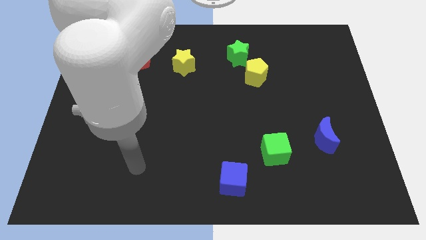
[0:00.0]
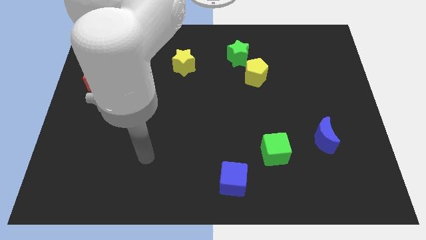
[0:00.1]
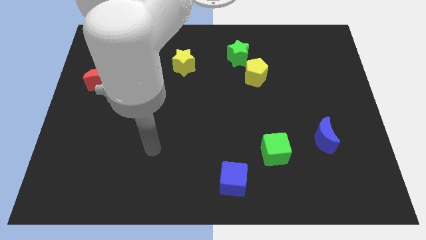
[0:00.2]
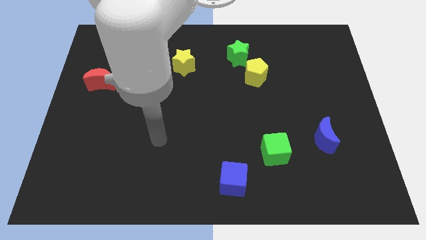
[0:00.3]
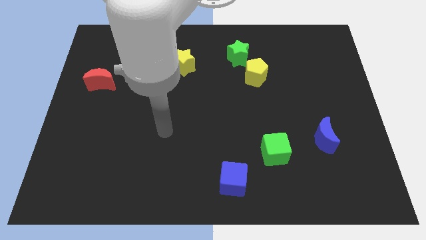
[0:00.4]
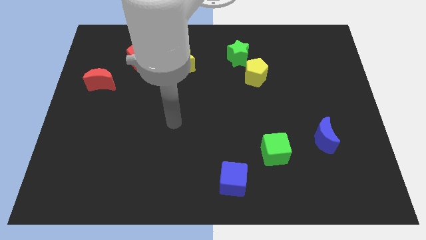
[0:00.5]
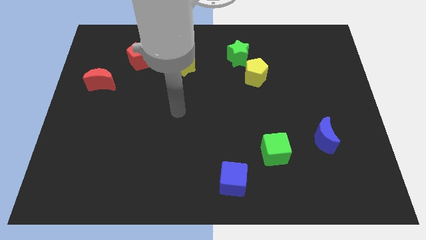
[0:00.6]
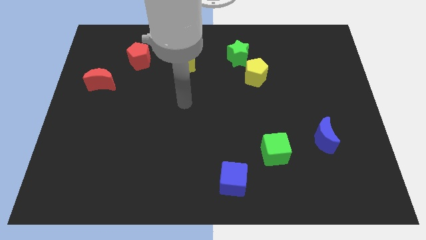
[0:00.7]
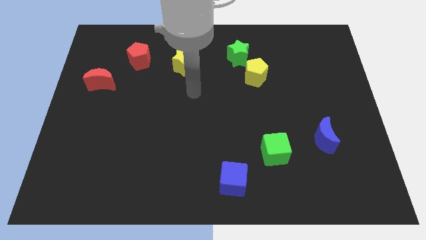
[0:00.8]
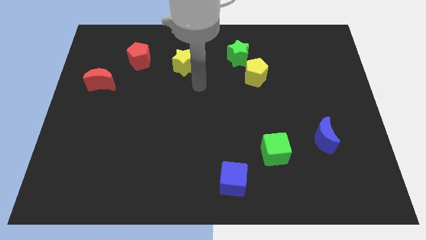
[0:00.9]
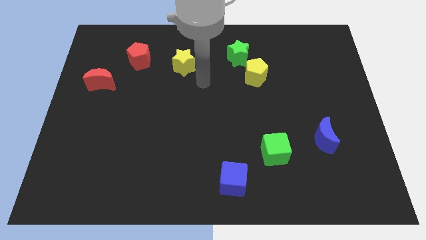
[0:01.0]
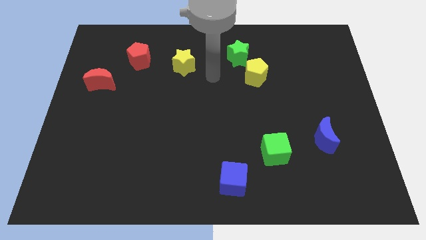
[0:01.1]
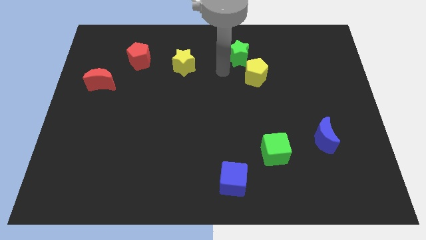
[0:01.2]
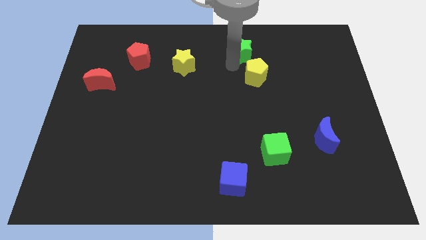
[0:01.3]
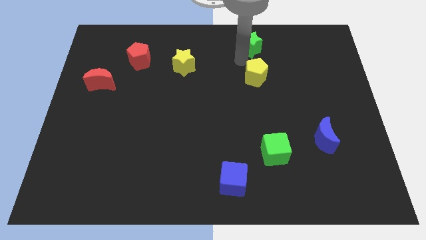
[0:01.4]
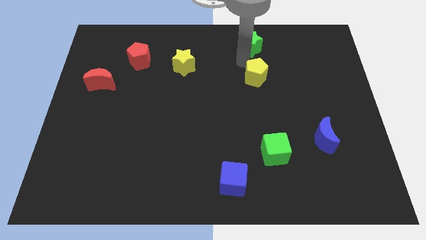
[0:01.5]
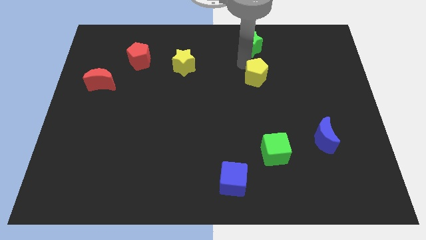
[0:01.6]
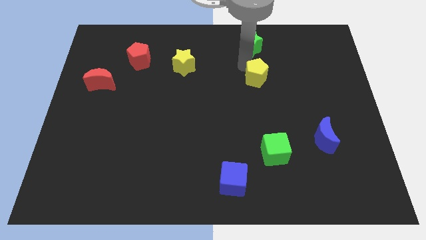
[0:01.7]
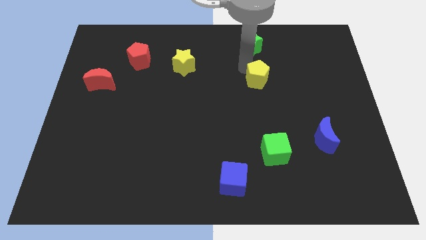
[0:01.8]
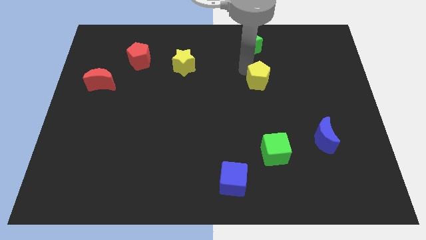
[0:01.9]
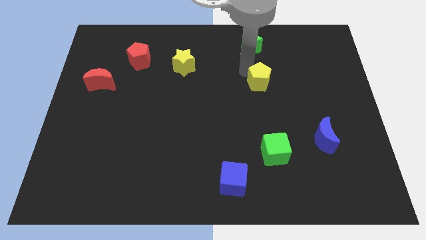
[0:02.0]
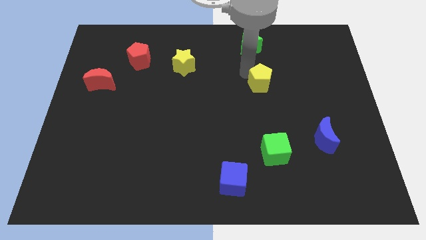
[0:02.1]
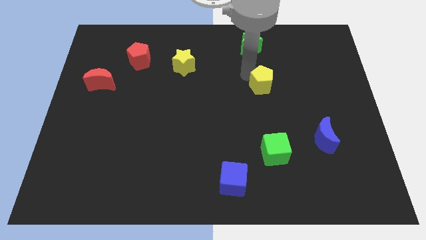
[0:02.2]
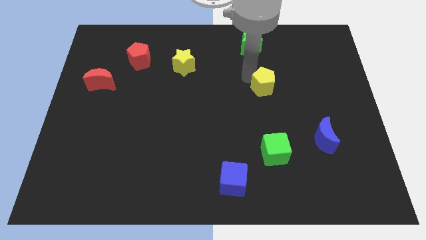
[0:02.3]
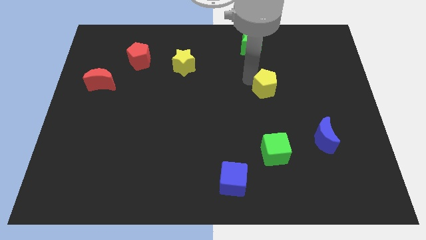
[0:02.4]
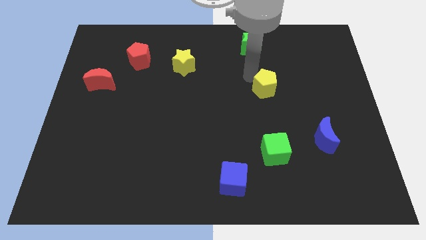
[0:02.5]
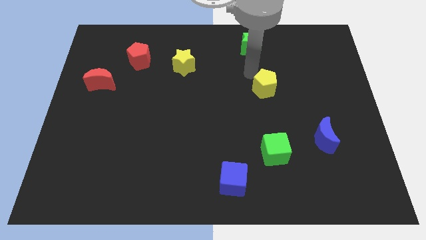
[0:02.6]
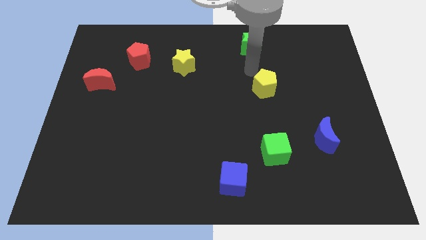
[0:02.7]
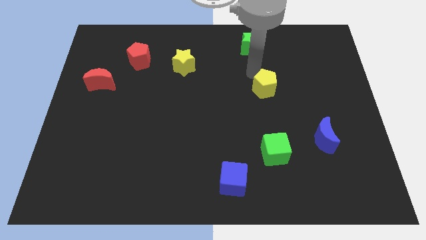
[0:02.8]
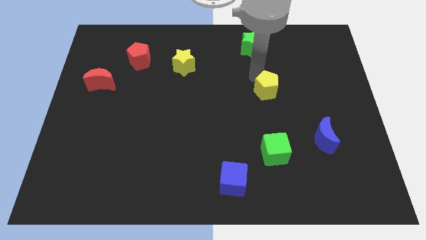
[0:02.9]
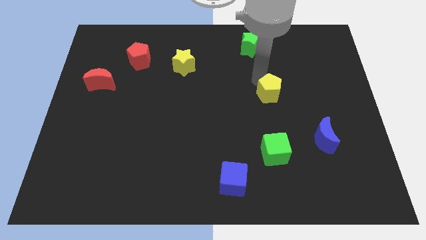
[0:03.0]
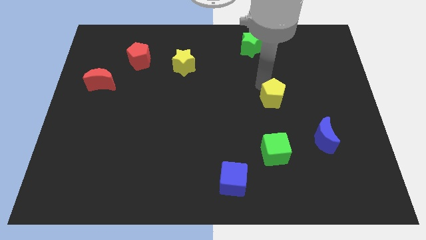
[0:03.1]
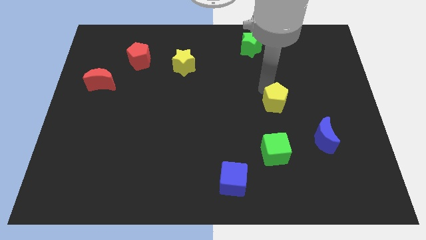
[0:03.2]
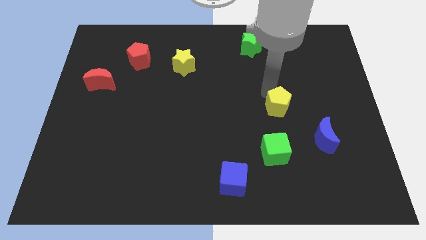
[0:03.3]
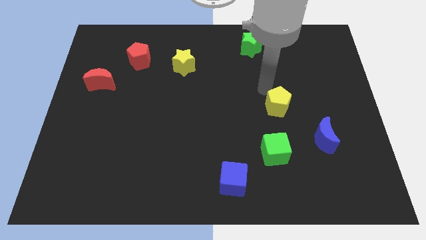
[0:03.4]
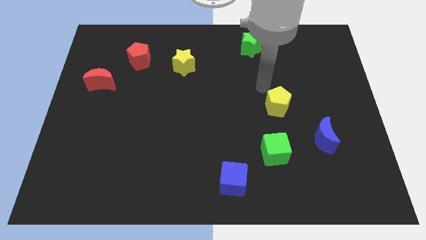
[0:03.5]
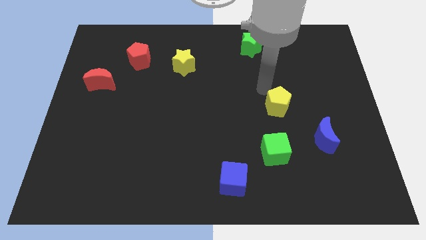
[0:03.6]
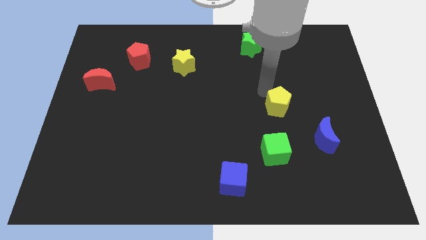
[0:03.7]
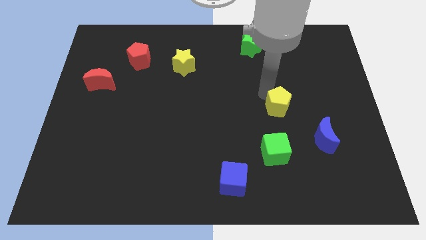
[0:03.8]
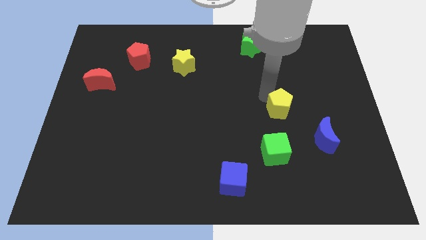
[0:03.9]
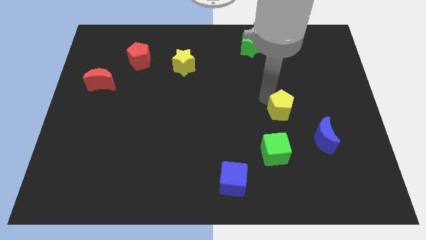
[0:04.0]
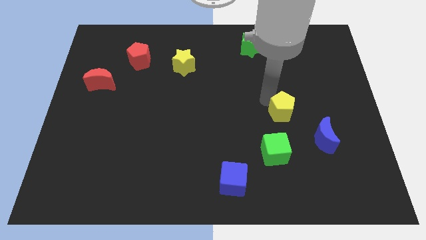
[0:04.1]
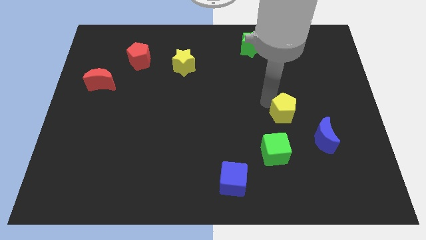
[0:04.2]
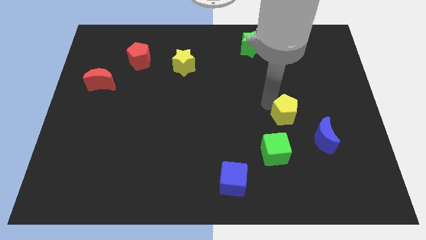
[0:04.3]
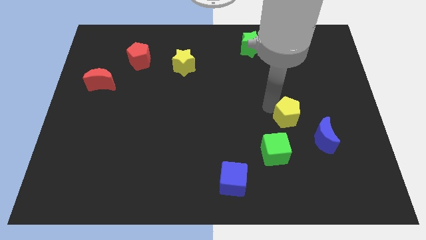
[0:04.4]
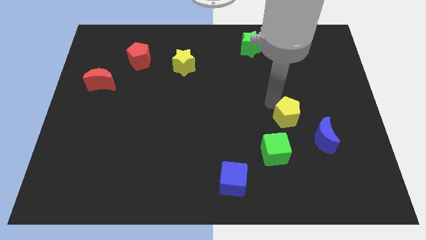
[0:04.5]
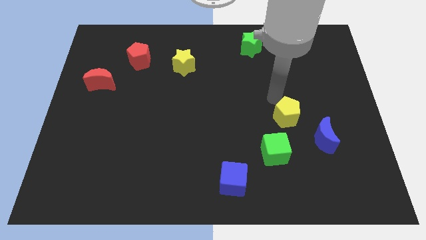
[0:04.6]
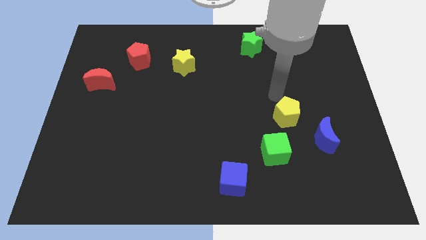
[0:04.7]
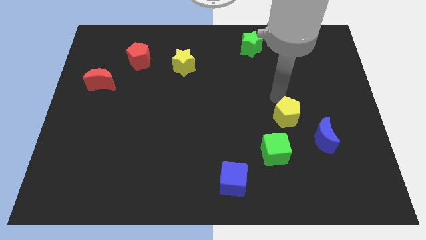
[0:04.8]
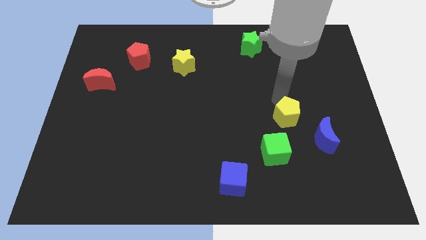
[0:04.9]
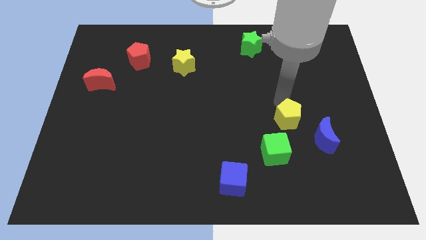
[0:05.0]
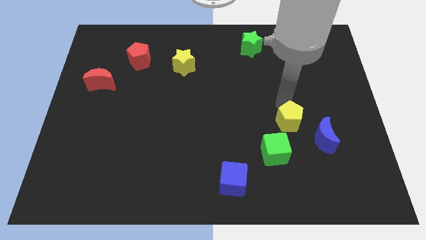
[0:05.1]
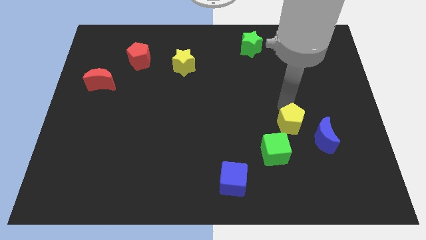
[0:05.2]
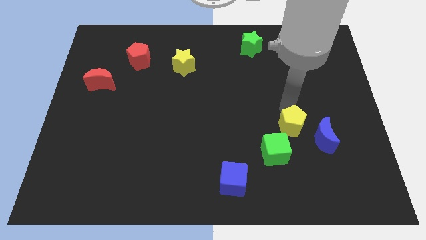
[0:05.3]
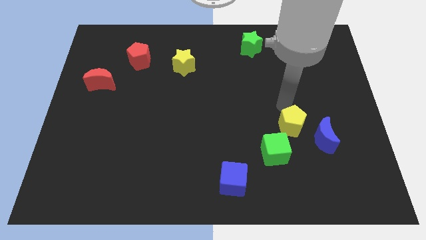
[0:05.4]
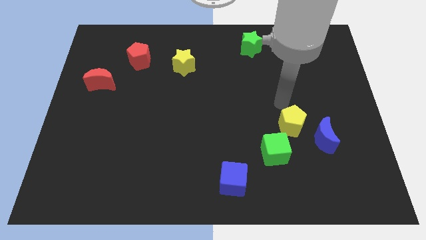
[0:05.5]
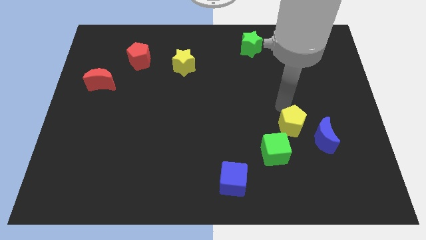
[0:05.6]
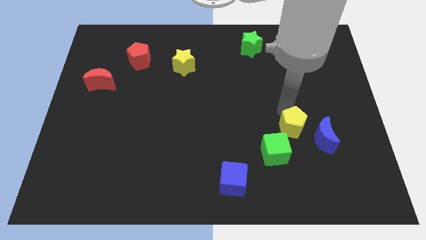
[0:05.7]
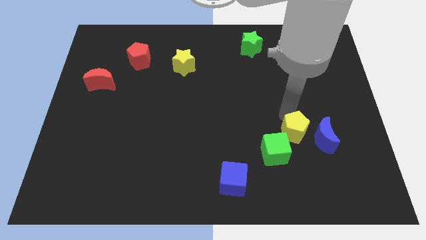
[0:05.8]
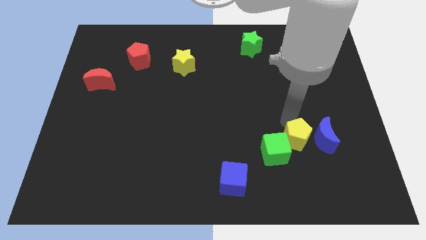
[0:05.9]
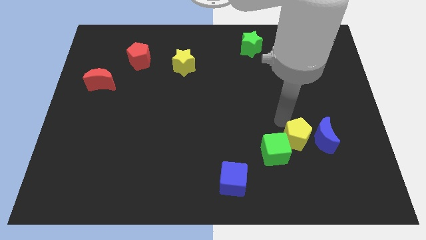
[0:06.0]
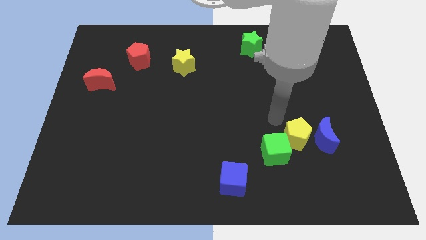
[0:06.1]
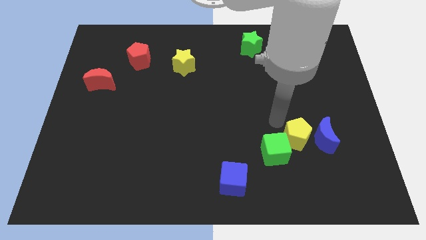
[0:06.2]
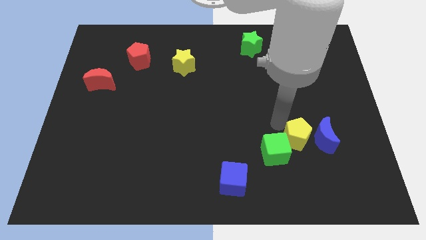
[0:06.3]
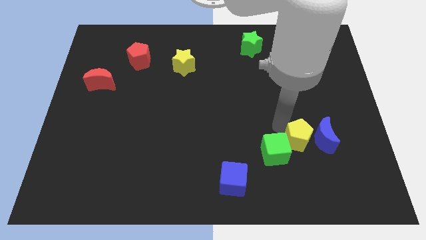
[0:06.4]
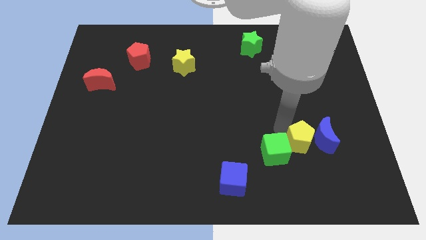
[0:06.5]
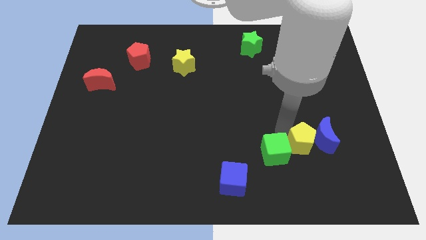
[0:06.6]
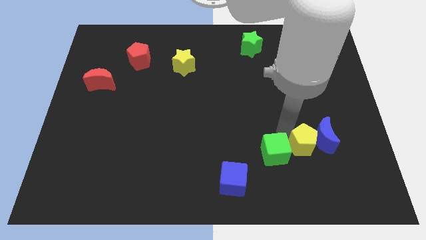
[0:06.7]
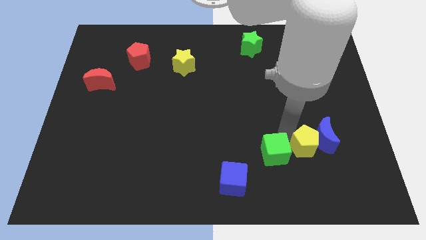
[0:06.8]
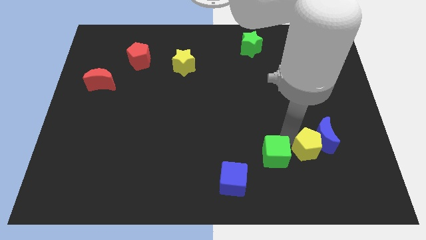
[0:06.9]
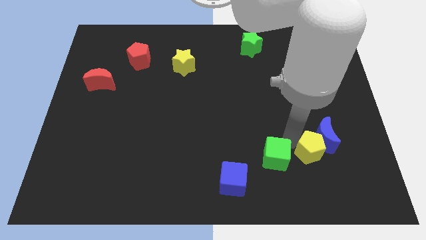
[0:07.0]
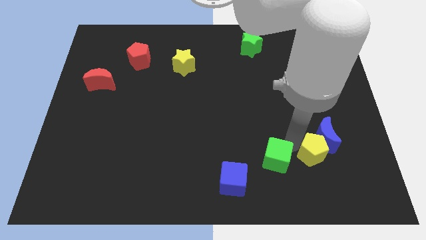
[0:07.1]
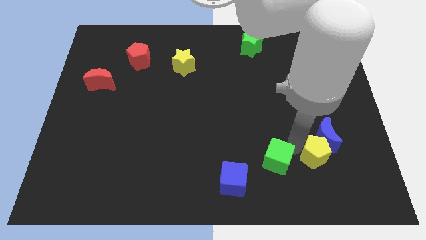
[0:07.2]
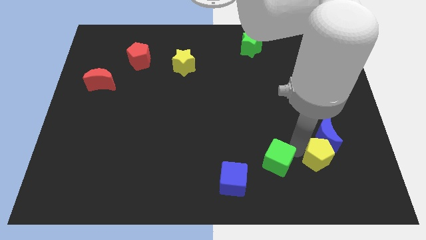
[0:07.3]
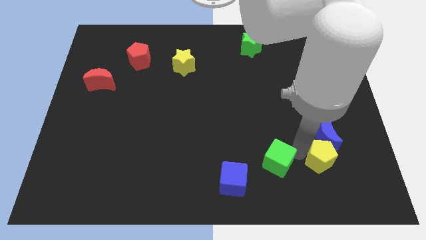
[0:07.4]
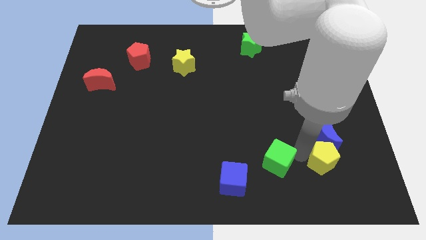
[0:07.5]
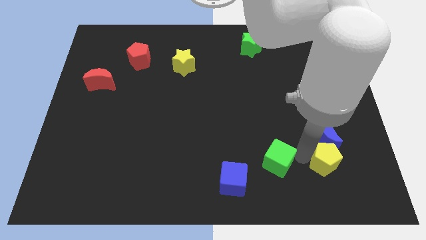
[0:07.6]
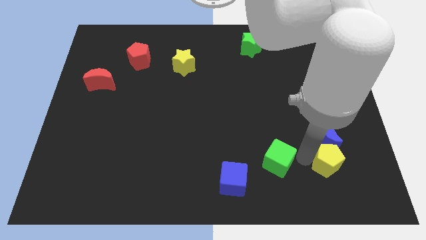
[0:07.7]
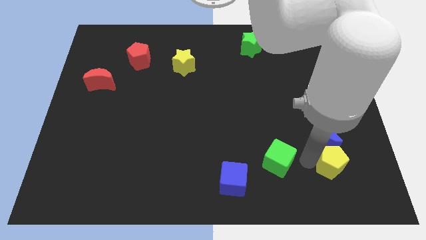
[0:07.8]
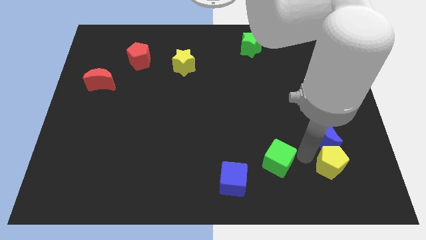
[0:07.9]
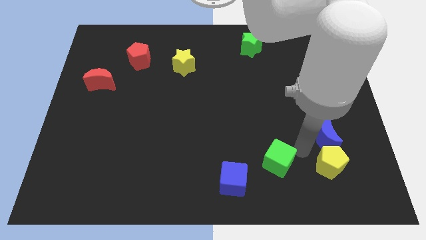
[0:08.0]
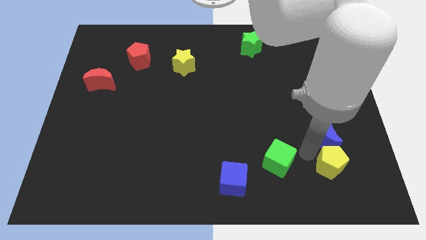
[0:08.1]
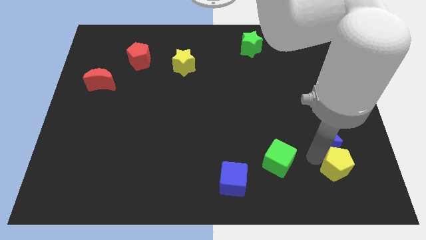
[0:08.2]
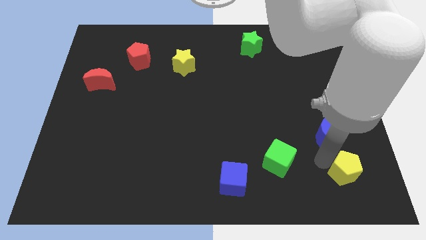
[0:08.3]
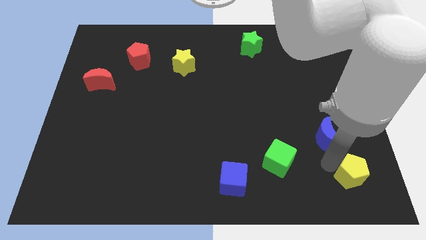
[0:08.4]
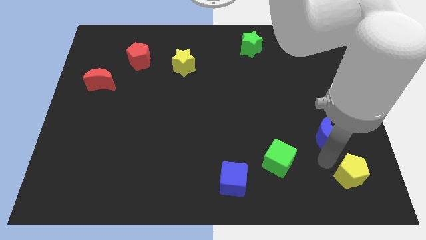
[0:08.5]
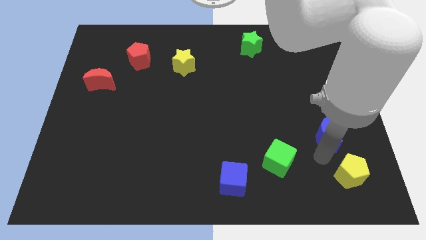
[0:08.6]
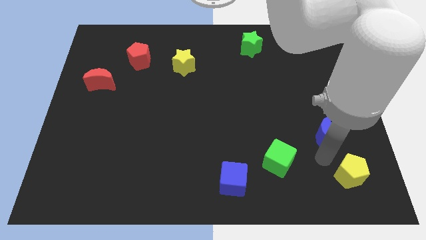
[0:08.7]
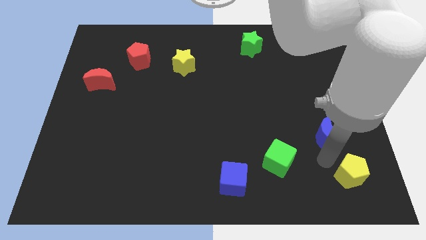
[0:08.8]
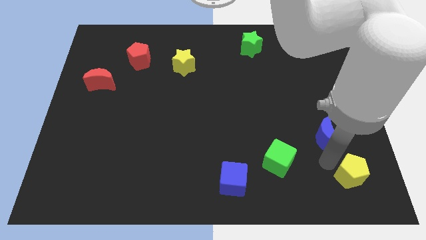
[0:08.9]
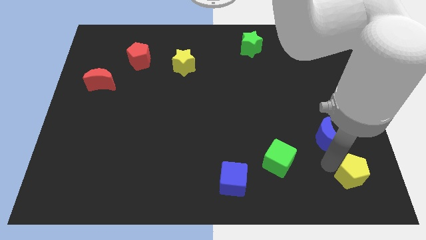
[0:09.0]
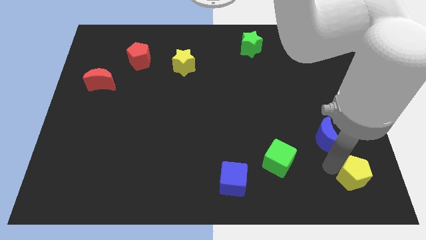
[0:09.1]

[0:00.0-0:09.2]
push the yellow pentagon to the bottom right corner
